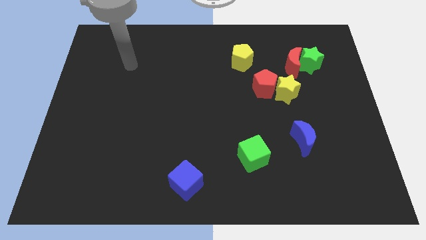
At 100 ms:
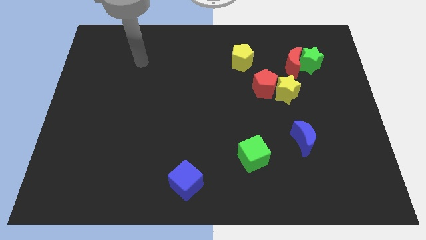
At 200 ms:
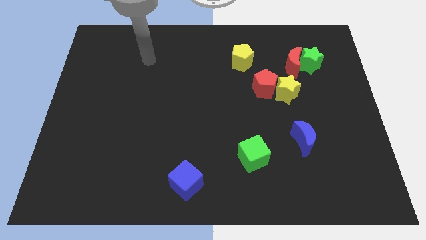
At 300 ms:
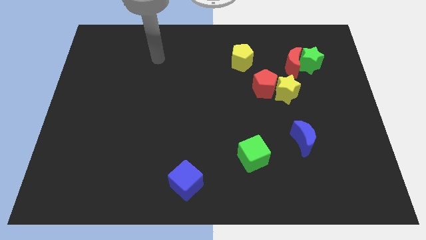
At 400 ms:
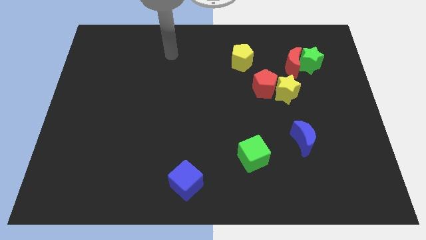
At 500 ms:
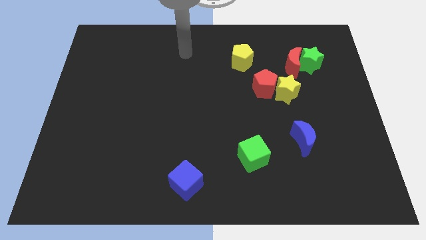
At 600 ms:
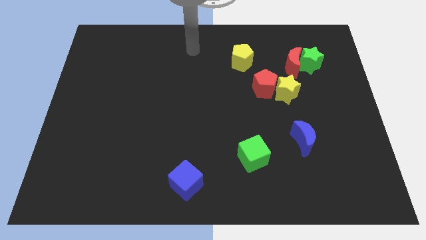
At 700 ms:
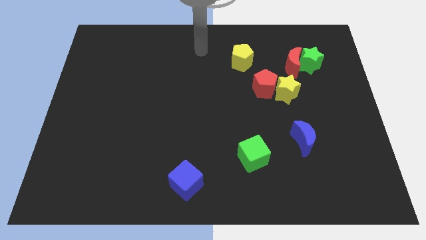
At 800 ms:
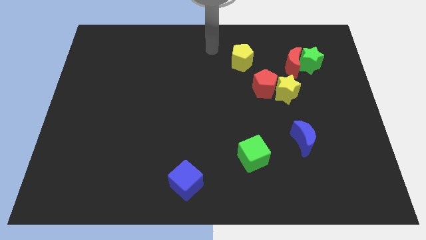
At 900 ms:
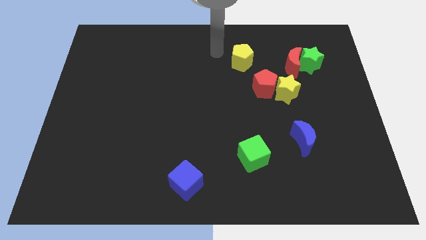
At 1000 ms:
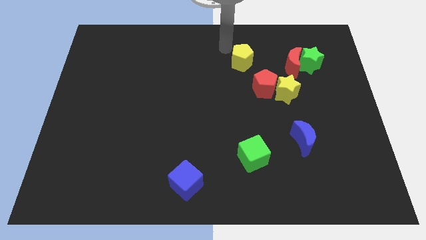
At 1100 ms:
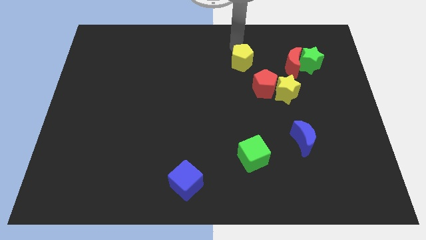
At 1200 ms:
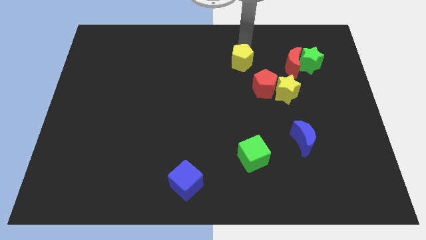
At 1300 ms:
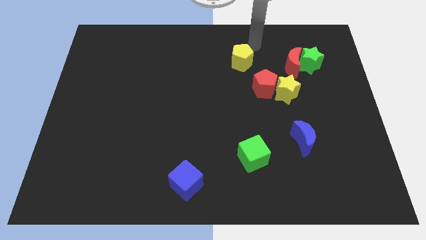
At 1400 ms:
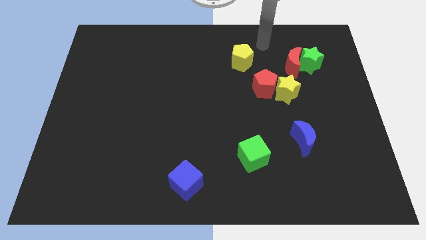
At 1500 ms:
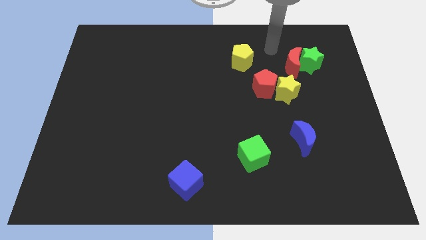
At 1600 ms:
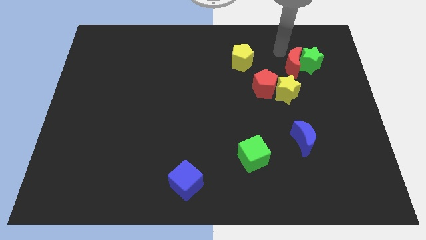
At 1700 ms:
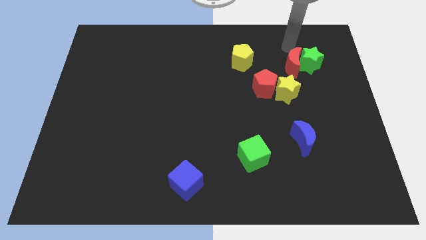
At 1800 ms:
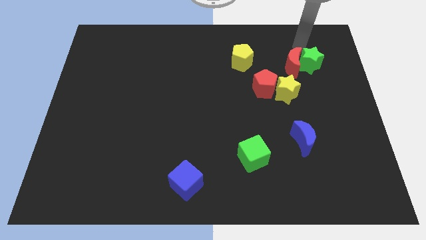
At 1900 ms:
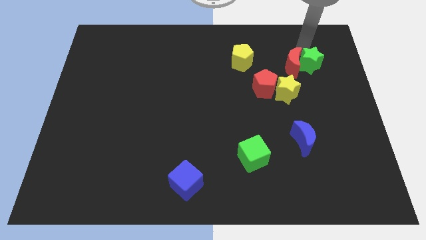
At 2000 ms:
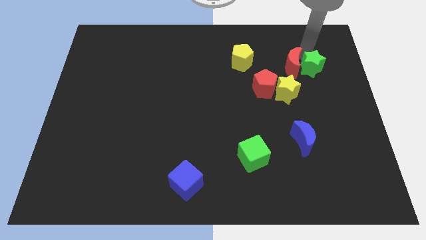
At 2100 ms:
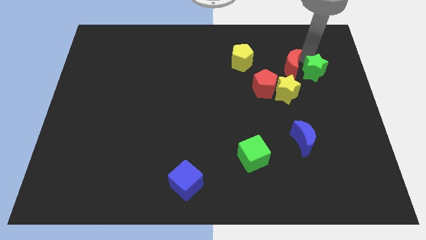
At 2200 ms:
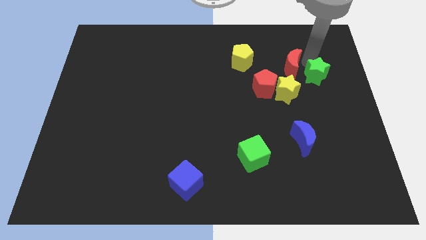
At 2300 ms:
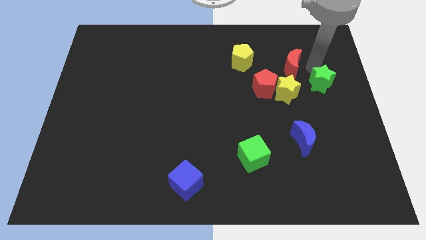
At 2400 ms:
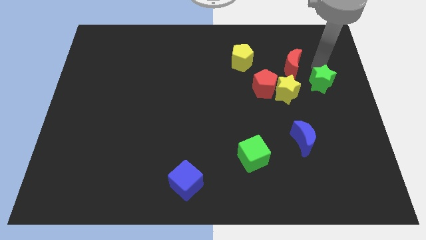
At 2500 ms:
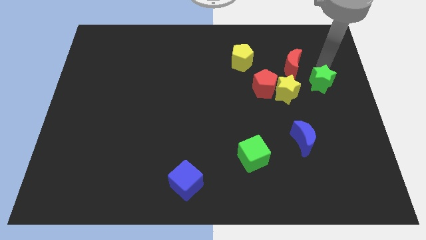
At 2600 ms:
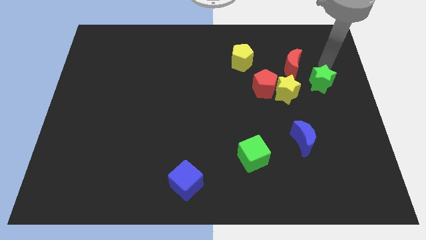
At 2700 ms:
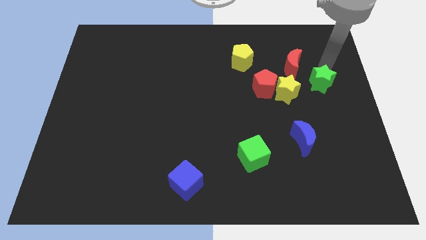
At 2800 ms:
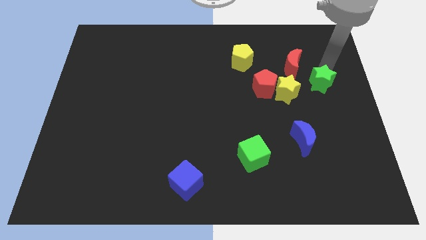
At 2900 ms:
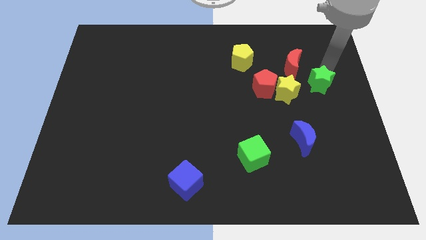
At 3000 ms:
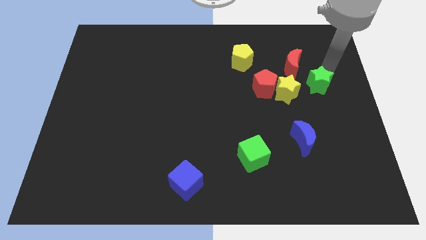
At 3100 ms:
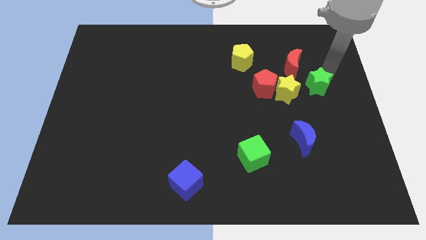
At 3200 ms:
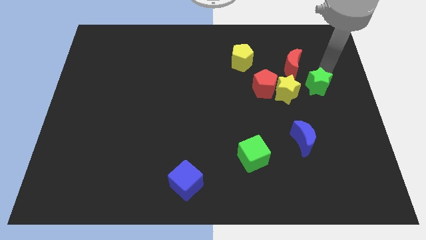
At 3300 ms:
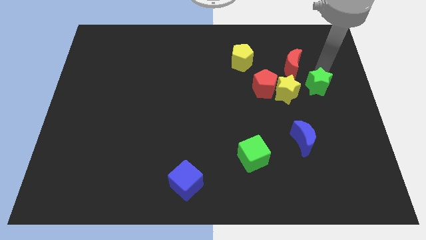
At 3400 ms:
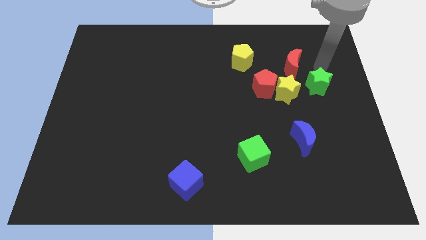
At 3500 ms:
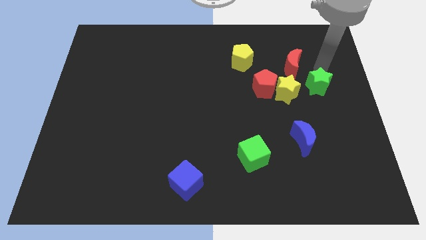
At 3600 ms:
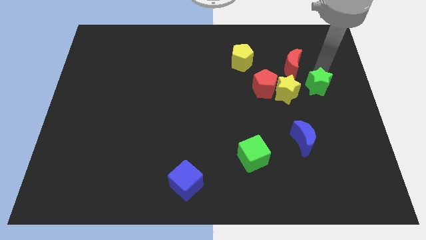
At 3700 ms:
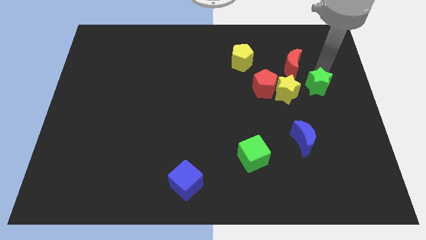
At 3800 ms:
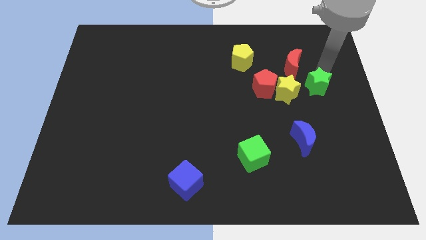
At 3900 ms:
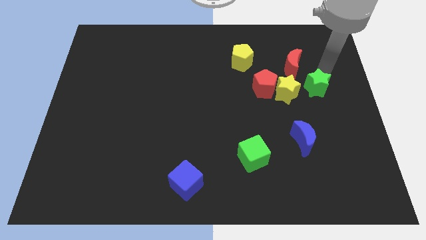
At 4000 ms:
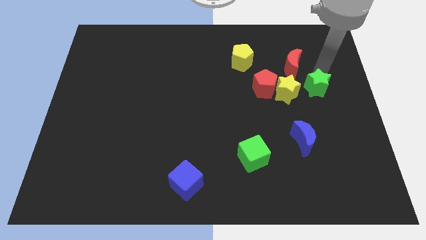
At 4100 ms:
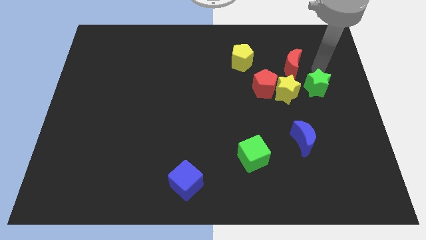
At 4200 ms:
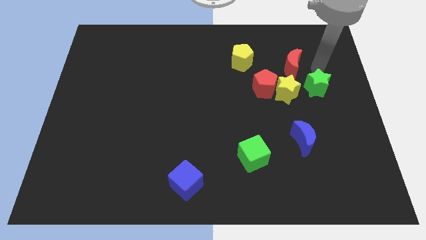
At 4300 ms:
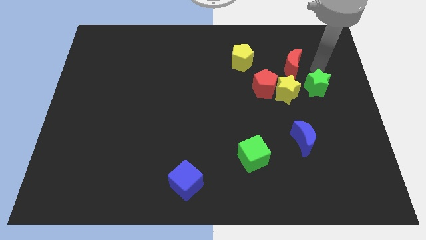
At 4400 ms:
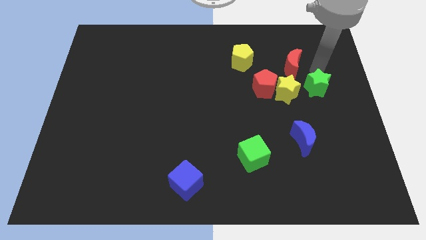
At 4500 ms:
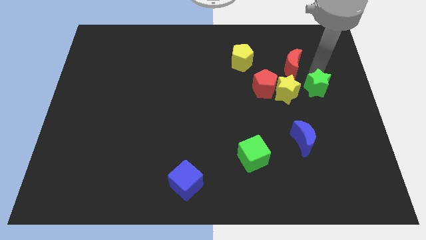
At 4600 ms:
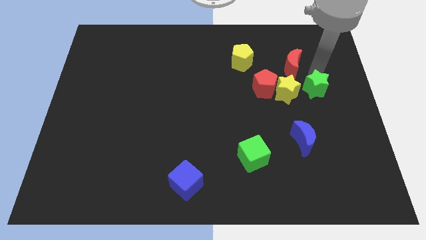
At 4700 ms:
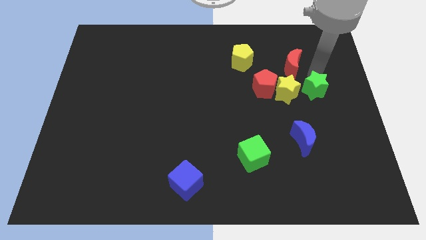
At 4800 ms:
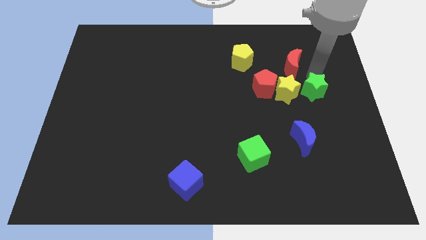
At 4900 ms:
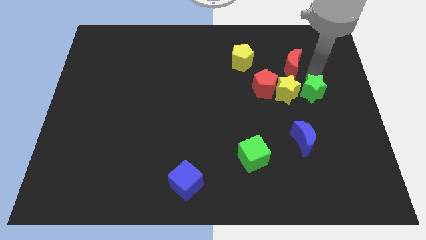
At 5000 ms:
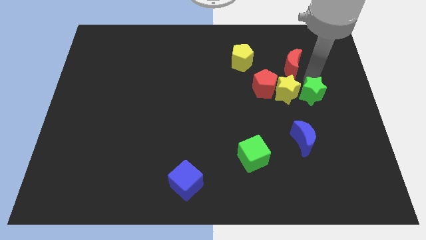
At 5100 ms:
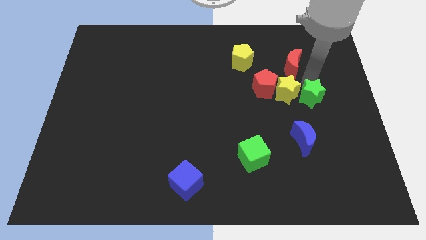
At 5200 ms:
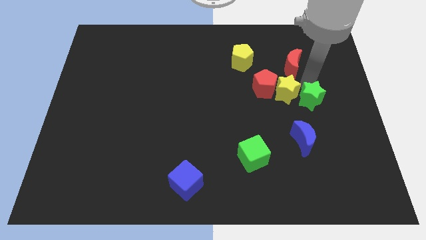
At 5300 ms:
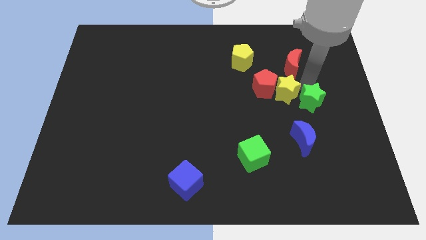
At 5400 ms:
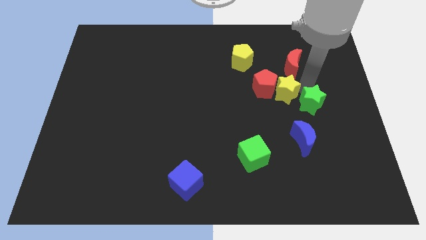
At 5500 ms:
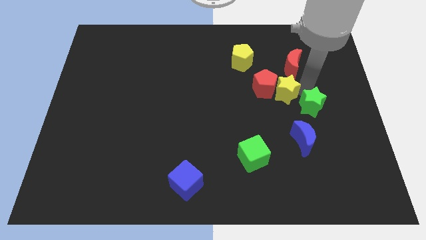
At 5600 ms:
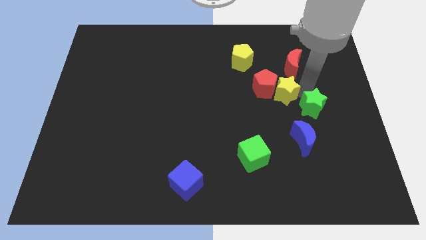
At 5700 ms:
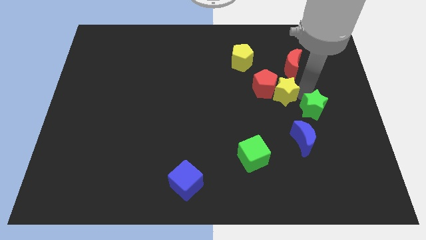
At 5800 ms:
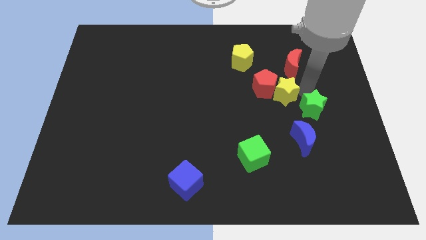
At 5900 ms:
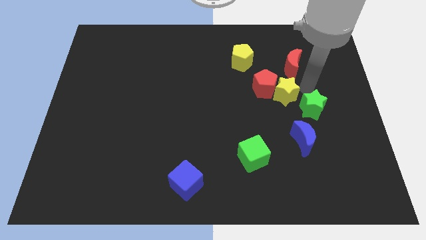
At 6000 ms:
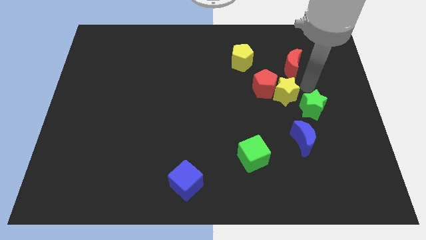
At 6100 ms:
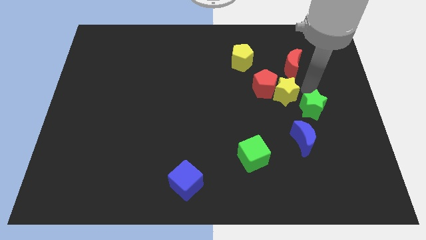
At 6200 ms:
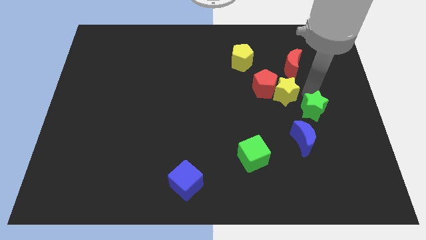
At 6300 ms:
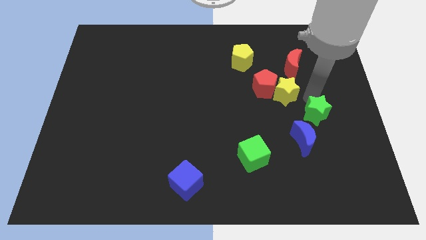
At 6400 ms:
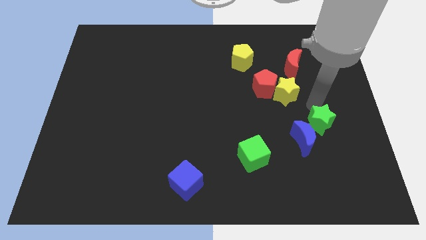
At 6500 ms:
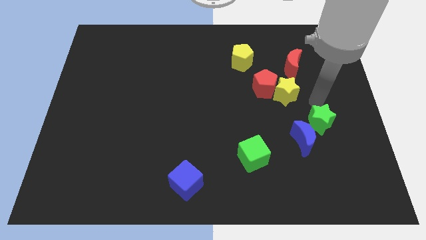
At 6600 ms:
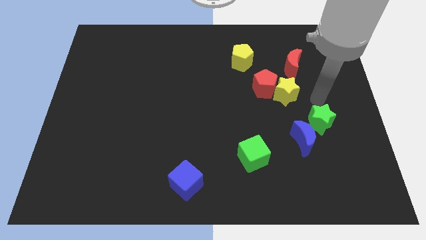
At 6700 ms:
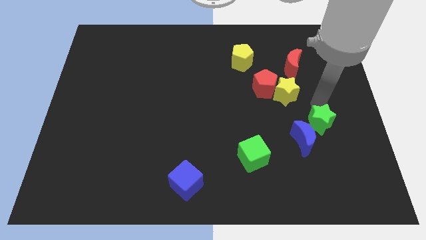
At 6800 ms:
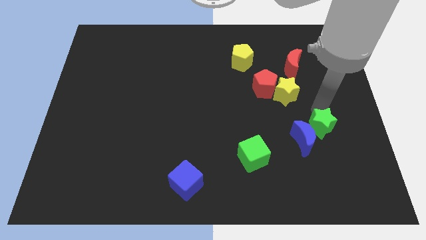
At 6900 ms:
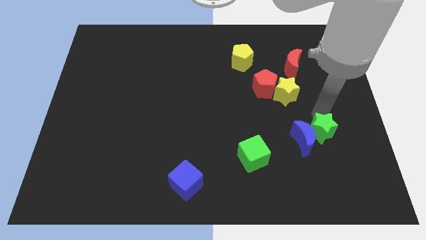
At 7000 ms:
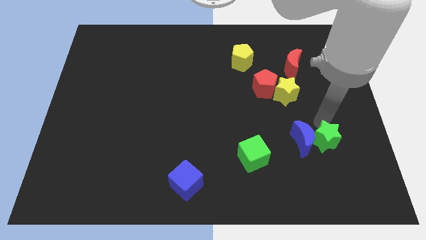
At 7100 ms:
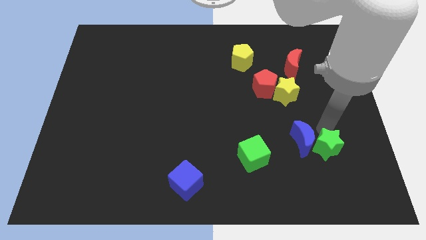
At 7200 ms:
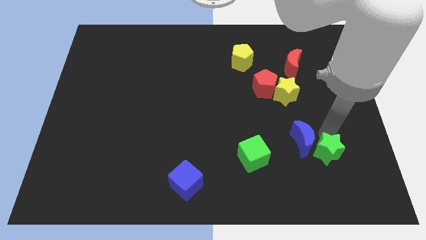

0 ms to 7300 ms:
put the green star to the right side of the green cube

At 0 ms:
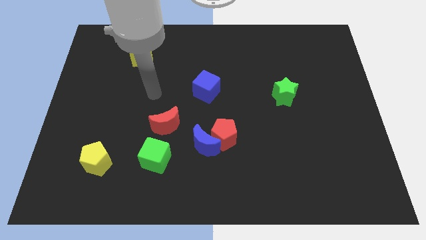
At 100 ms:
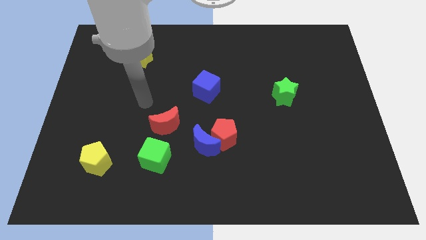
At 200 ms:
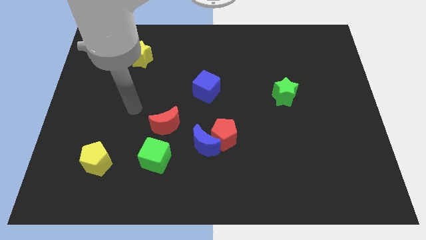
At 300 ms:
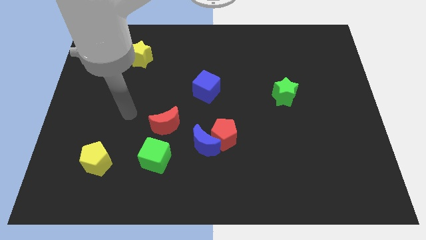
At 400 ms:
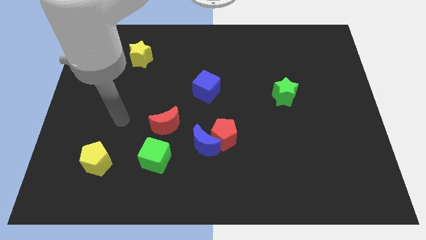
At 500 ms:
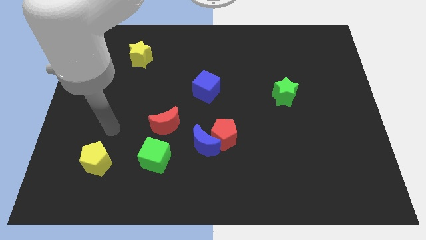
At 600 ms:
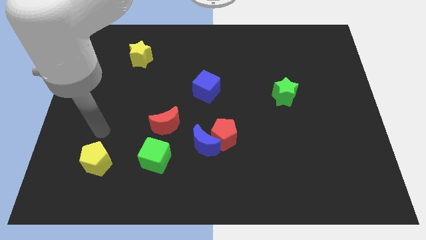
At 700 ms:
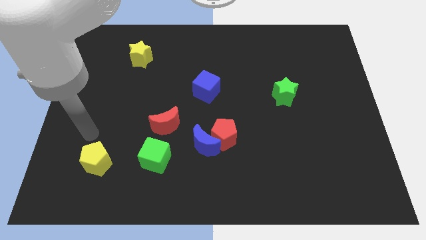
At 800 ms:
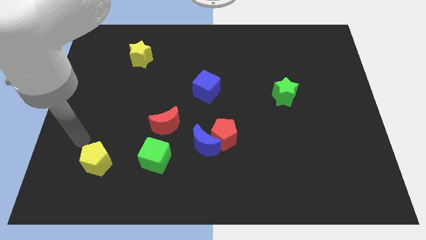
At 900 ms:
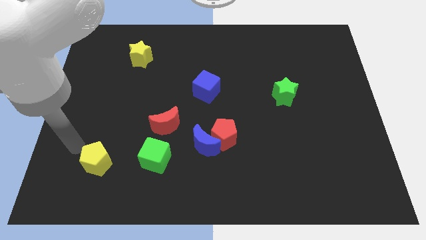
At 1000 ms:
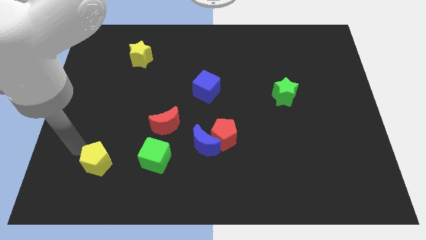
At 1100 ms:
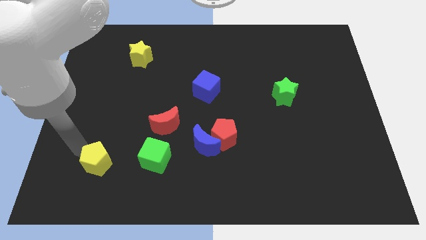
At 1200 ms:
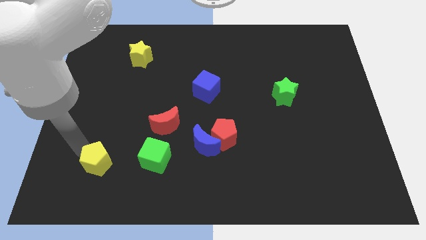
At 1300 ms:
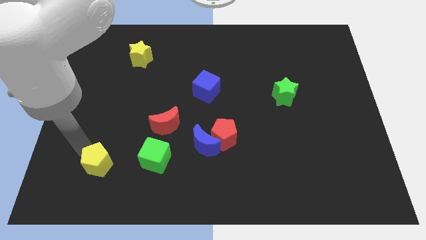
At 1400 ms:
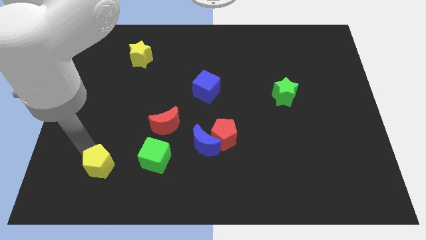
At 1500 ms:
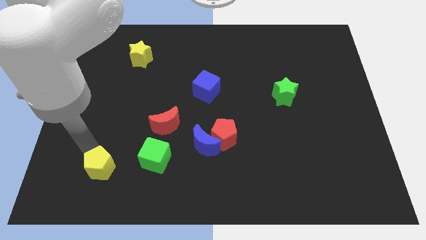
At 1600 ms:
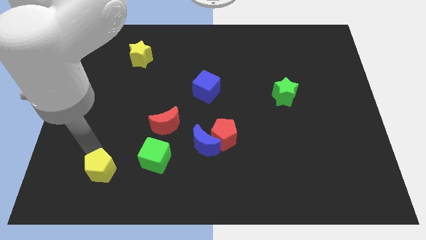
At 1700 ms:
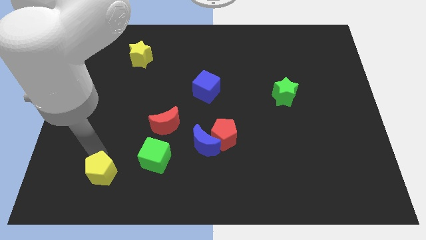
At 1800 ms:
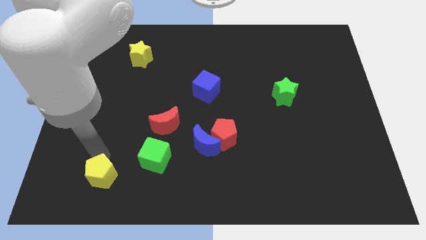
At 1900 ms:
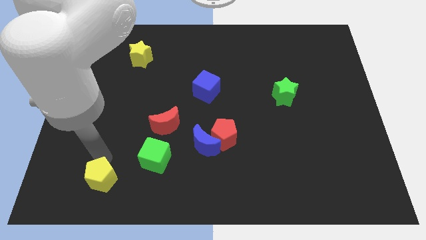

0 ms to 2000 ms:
push the yellow pentagon to the bottom left side of the green cube
